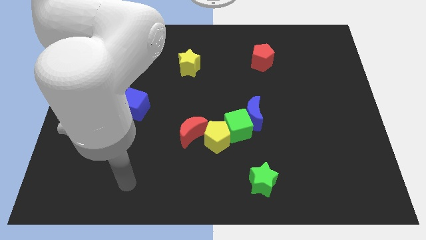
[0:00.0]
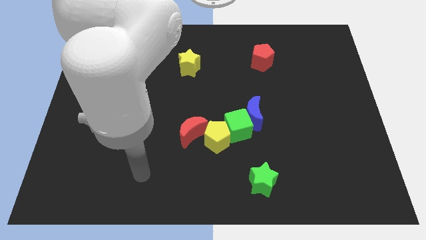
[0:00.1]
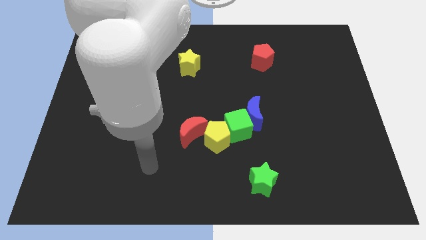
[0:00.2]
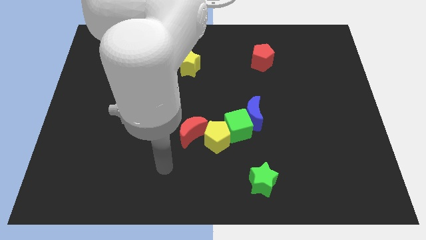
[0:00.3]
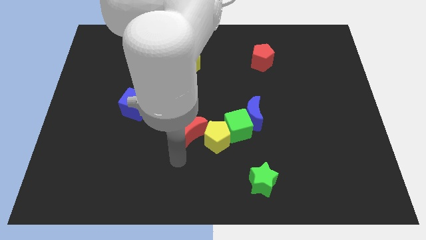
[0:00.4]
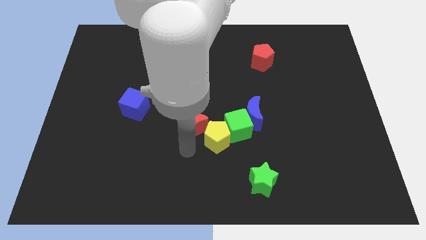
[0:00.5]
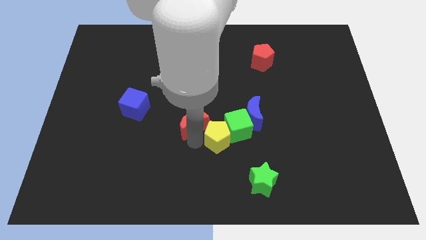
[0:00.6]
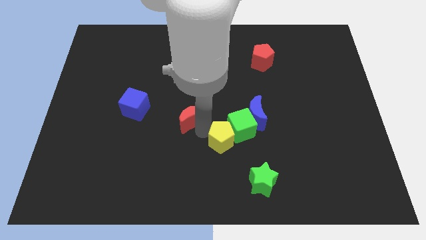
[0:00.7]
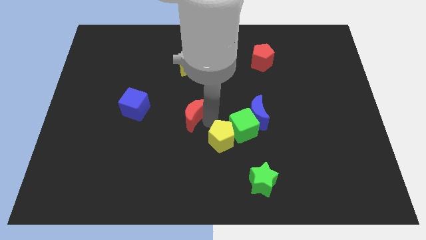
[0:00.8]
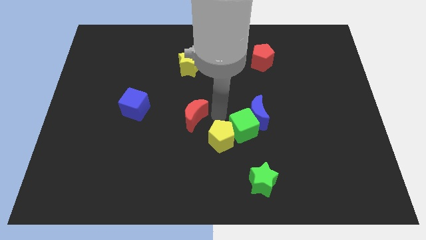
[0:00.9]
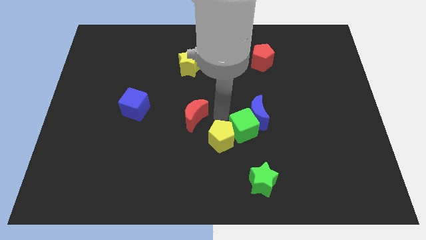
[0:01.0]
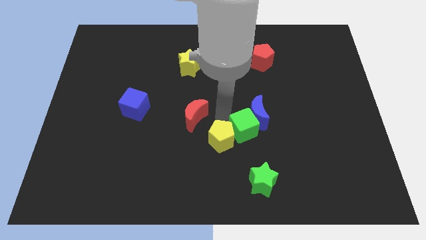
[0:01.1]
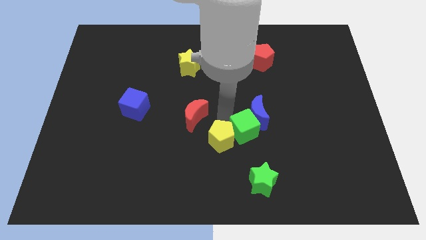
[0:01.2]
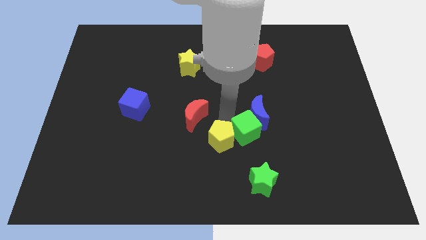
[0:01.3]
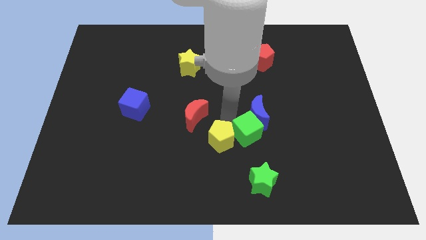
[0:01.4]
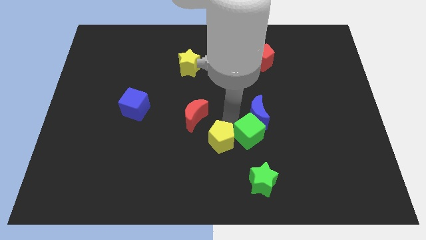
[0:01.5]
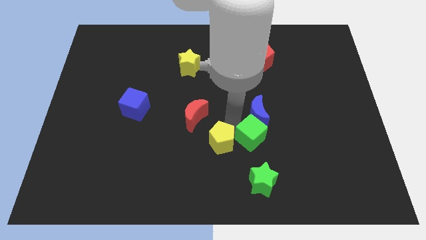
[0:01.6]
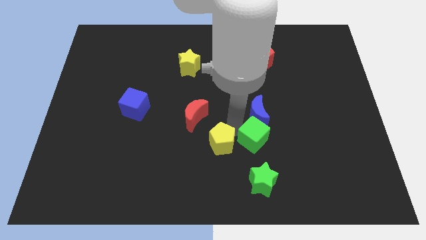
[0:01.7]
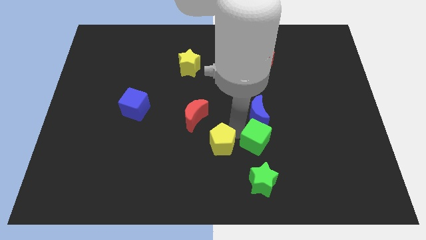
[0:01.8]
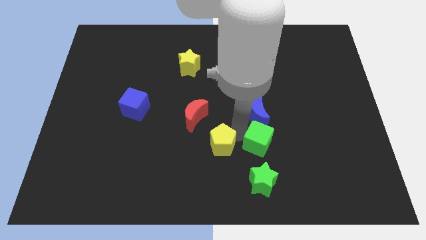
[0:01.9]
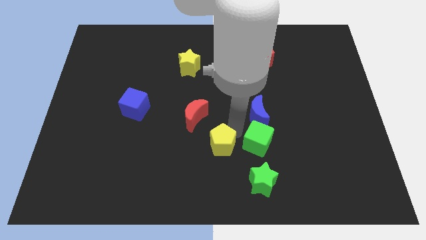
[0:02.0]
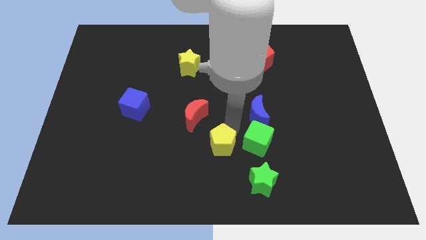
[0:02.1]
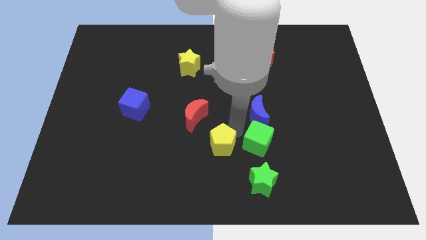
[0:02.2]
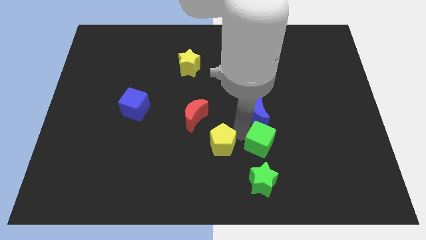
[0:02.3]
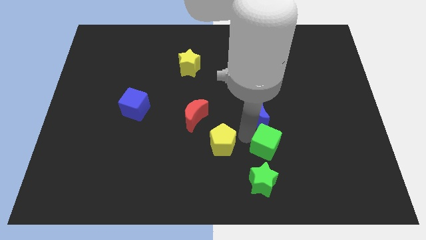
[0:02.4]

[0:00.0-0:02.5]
move the green cube away from the blue moon, yellow pentagon, and red moon

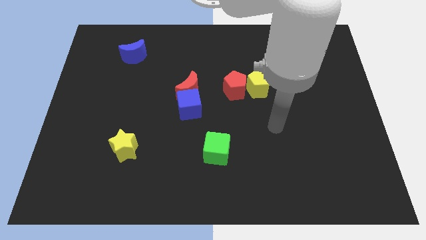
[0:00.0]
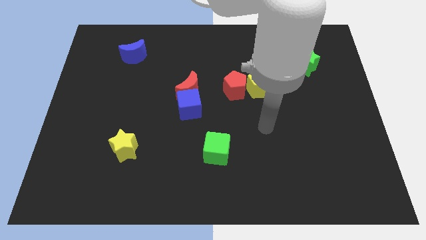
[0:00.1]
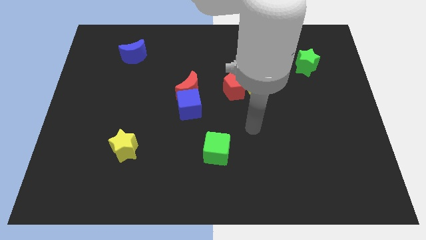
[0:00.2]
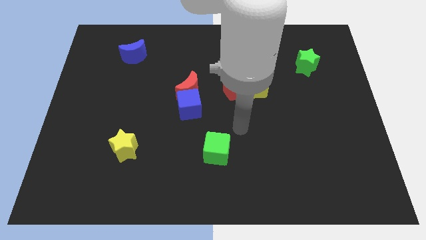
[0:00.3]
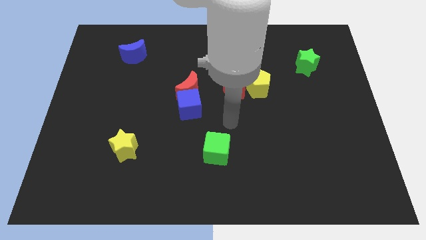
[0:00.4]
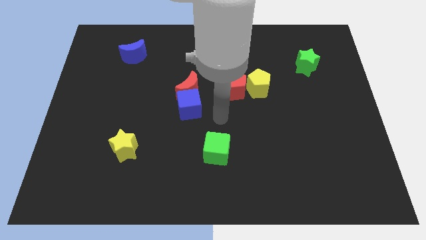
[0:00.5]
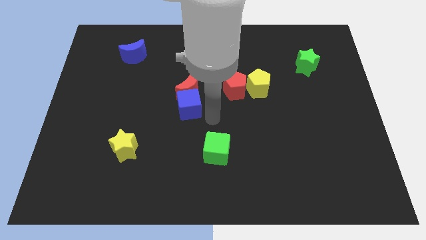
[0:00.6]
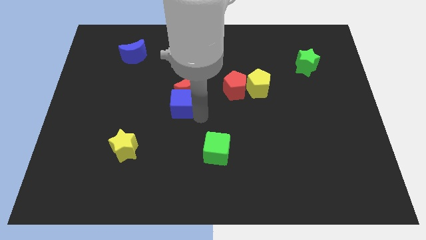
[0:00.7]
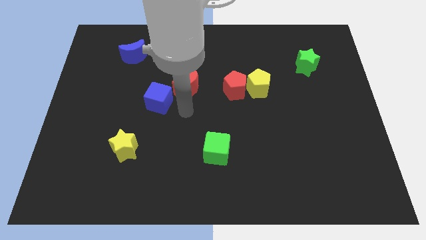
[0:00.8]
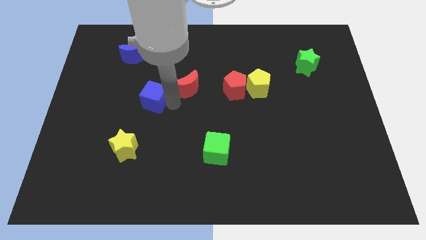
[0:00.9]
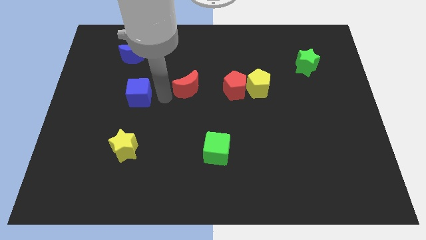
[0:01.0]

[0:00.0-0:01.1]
pull the red moon apart from the blue cube

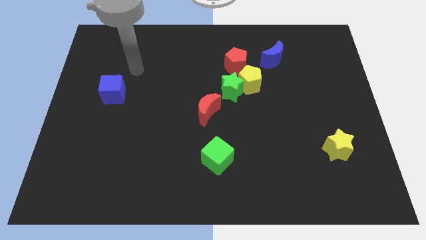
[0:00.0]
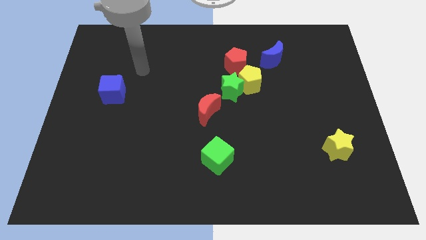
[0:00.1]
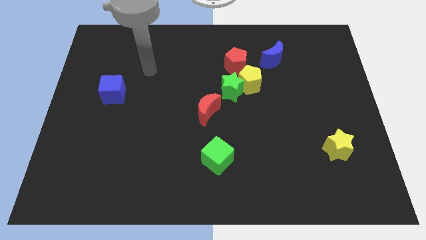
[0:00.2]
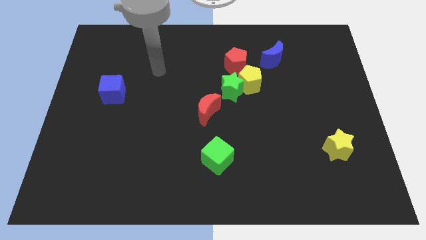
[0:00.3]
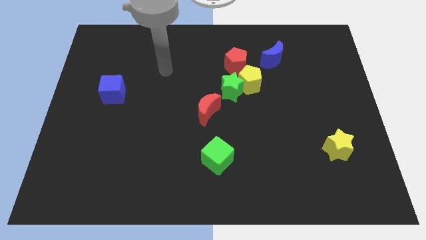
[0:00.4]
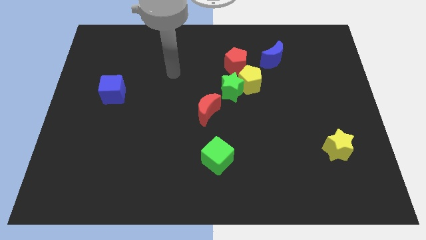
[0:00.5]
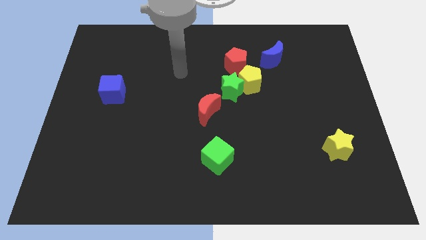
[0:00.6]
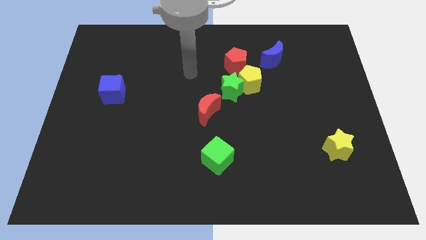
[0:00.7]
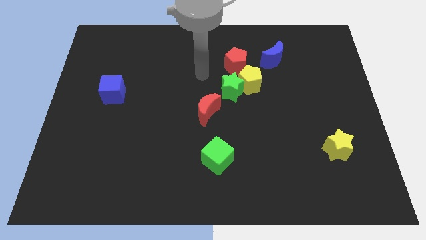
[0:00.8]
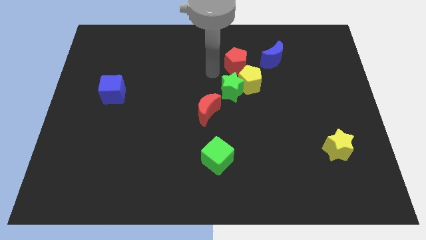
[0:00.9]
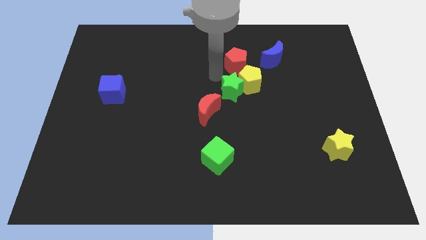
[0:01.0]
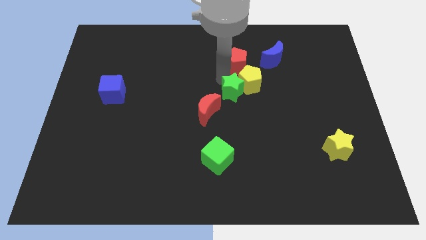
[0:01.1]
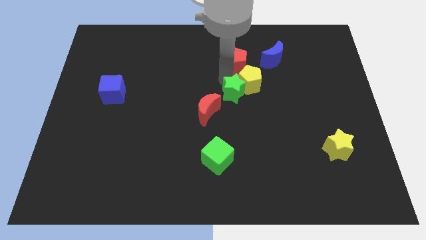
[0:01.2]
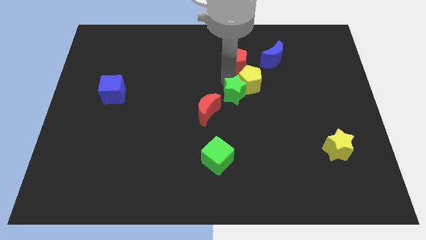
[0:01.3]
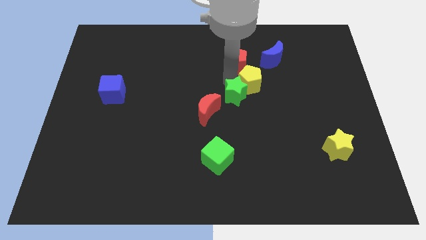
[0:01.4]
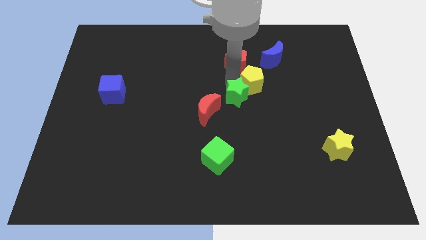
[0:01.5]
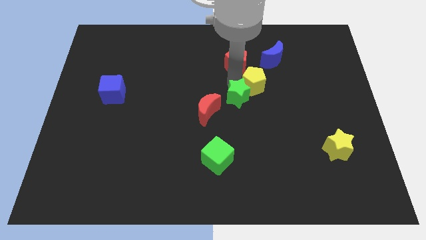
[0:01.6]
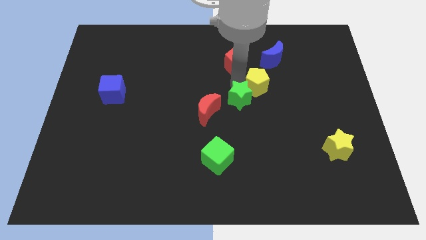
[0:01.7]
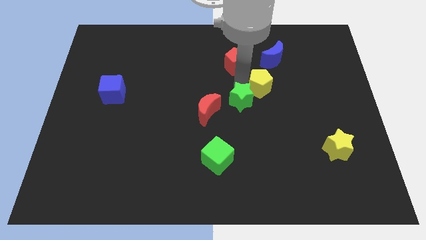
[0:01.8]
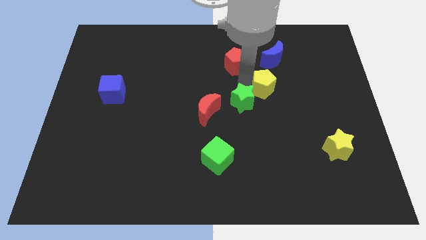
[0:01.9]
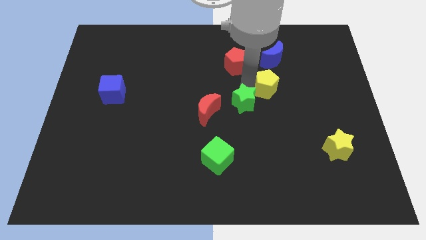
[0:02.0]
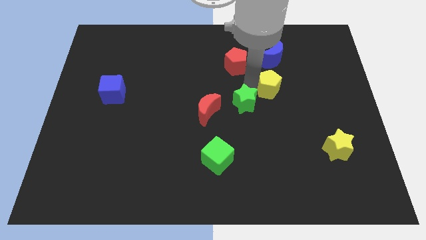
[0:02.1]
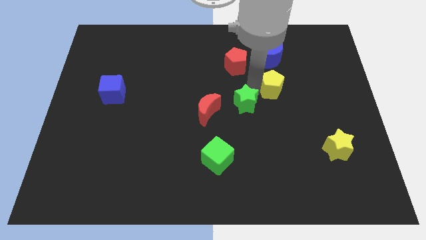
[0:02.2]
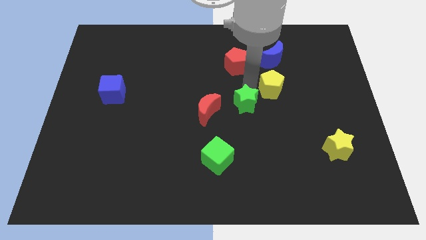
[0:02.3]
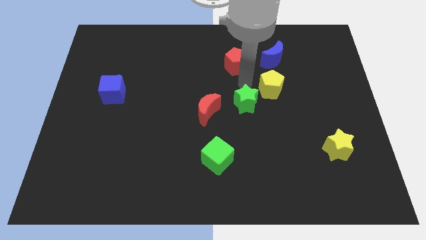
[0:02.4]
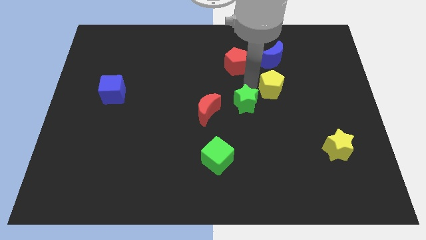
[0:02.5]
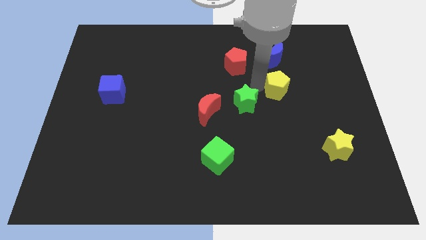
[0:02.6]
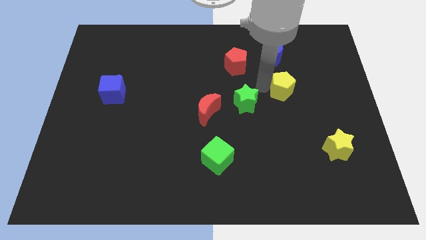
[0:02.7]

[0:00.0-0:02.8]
move the yellow pentagon away from the green star and red pentagon

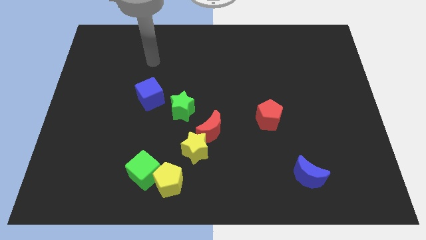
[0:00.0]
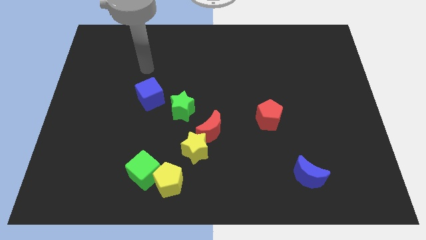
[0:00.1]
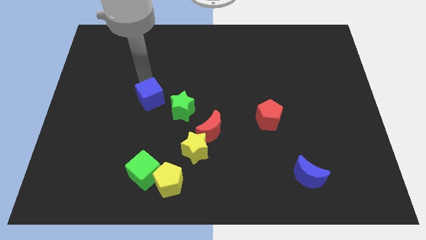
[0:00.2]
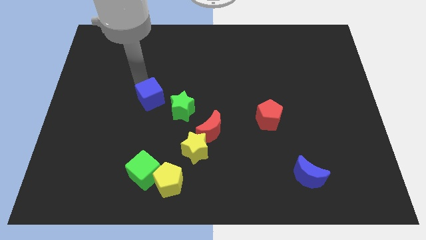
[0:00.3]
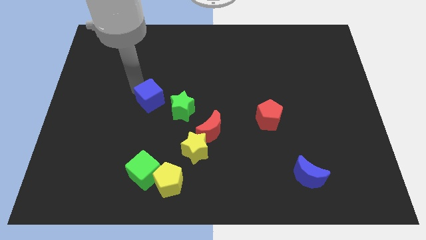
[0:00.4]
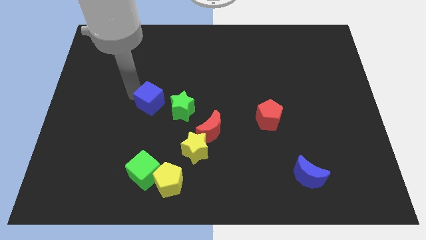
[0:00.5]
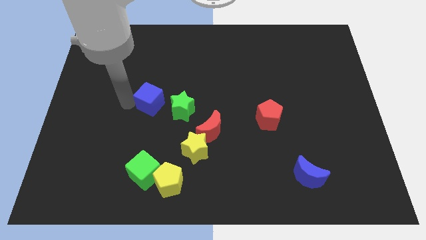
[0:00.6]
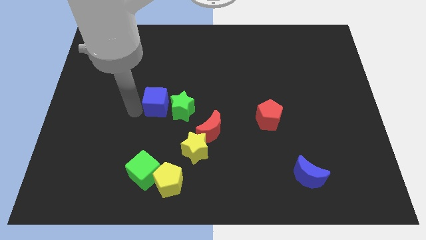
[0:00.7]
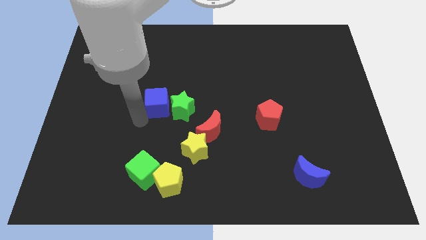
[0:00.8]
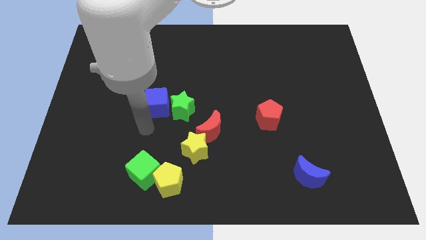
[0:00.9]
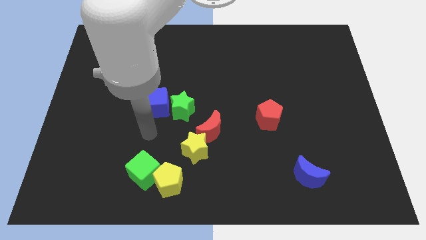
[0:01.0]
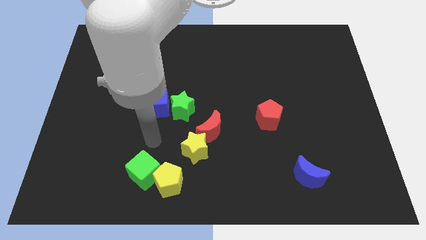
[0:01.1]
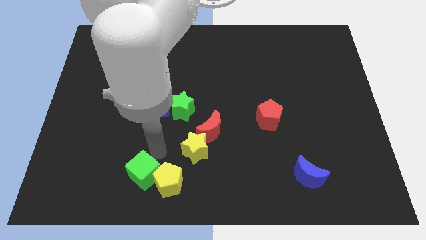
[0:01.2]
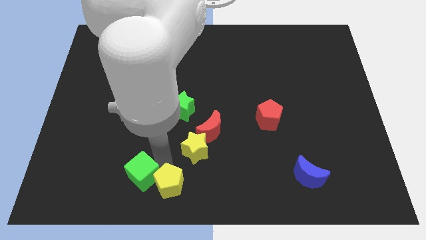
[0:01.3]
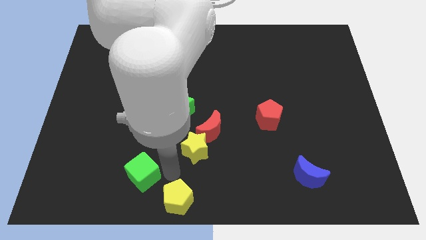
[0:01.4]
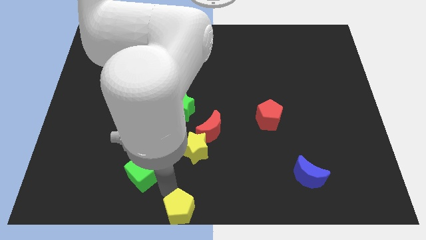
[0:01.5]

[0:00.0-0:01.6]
pull the green cube apart from the yellow pentagon

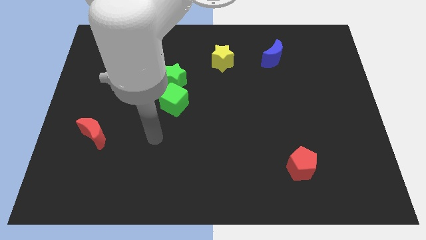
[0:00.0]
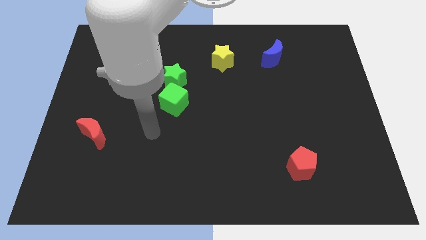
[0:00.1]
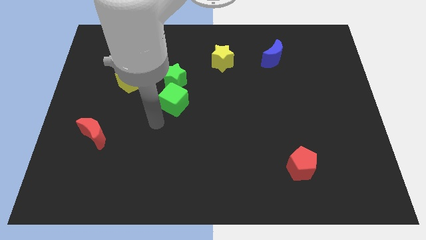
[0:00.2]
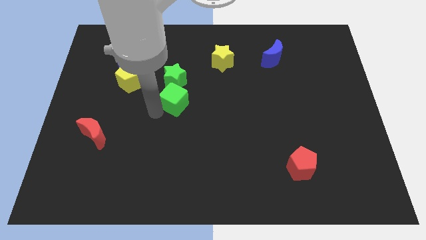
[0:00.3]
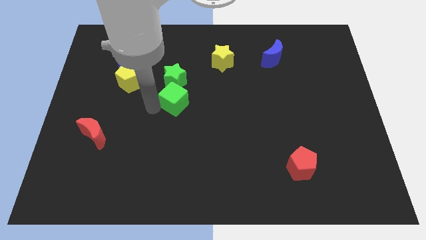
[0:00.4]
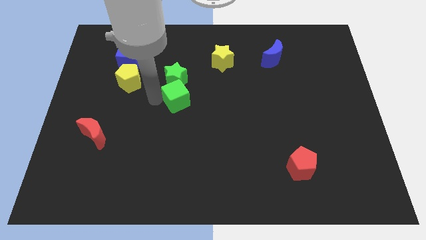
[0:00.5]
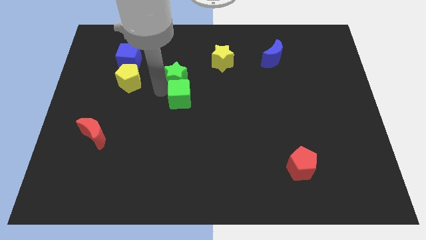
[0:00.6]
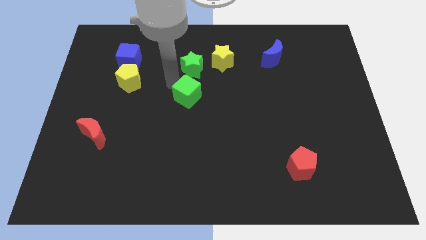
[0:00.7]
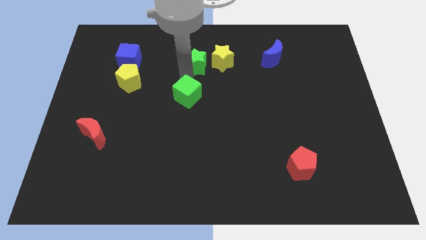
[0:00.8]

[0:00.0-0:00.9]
separate the green cube from the green star

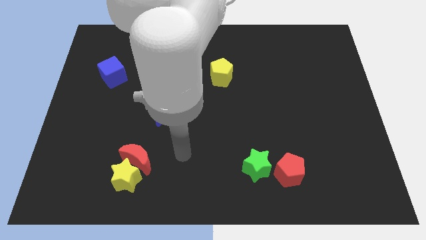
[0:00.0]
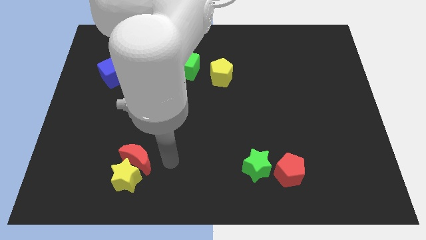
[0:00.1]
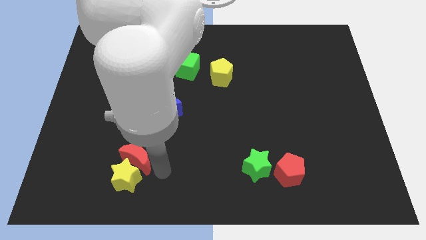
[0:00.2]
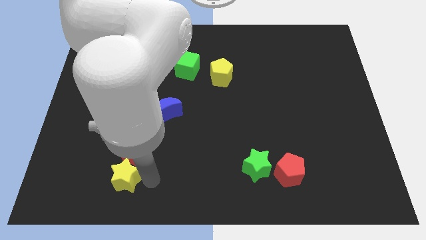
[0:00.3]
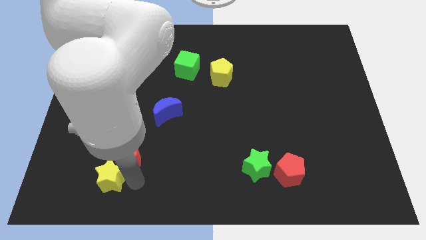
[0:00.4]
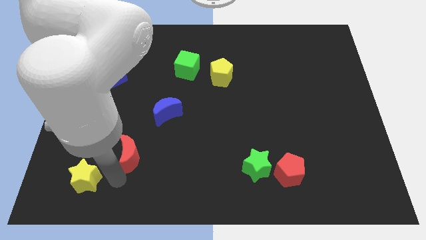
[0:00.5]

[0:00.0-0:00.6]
separate the red moon from the yellow star
